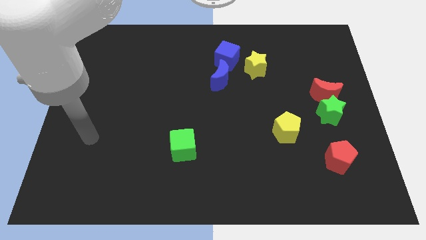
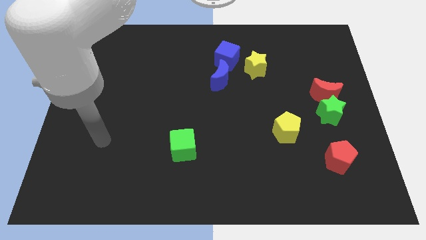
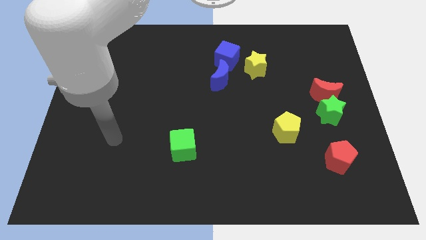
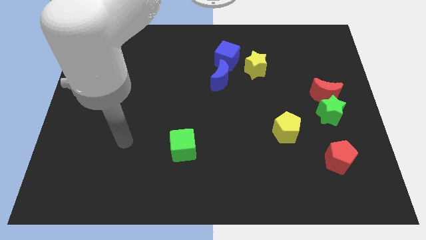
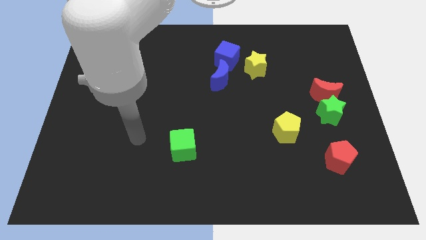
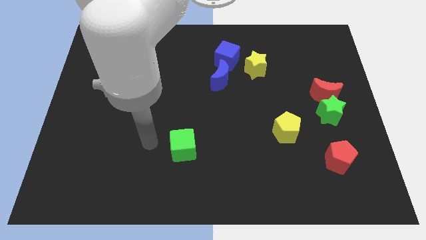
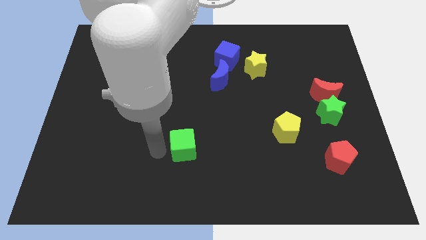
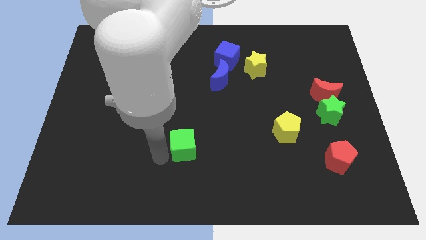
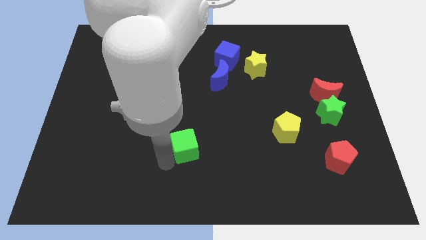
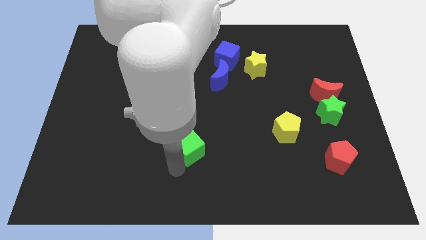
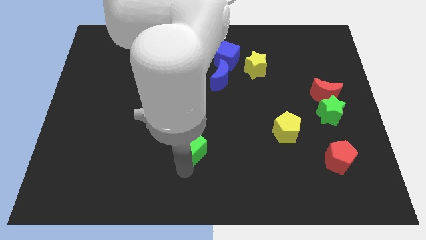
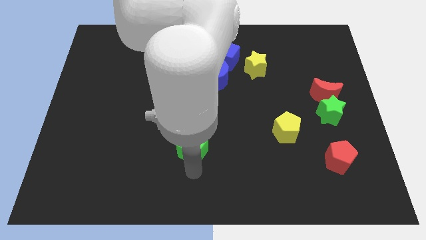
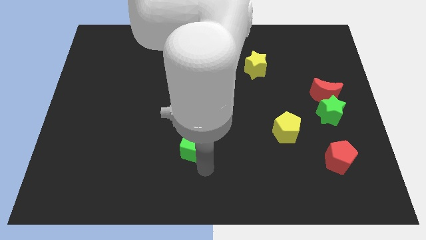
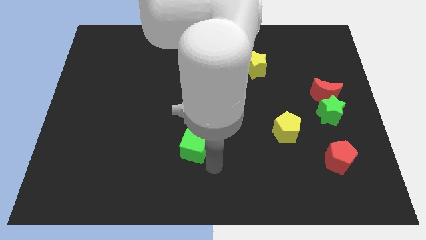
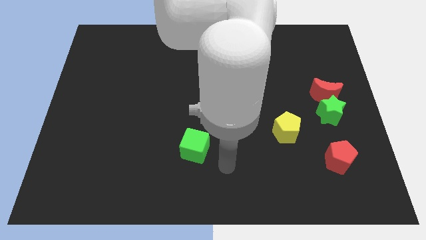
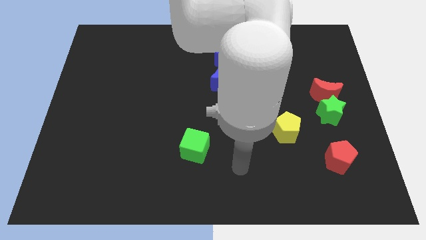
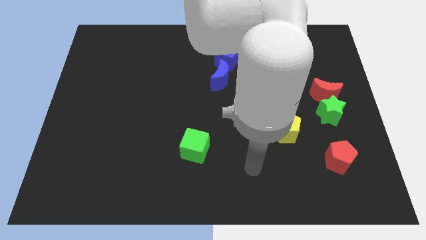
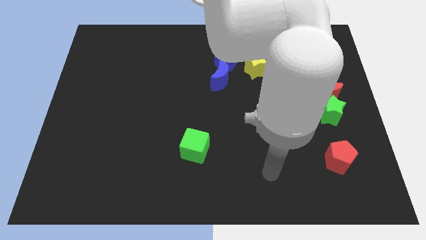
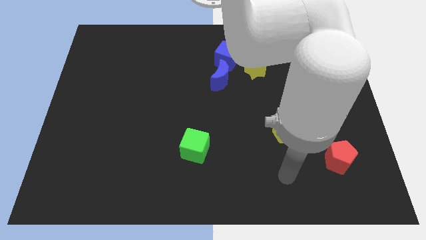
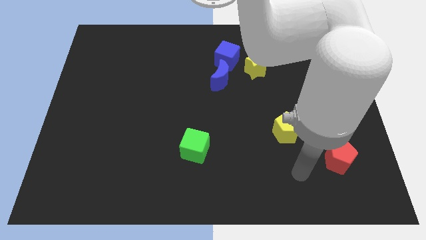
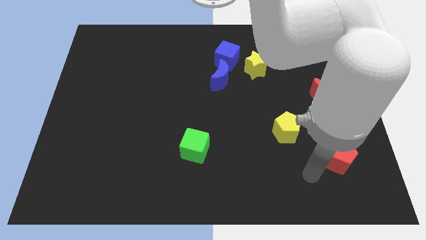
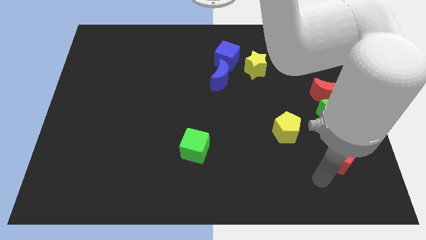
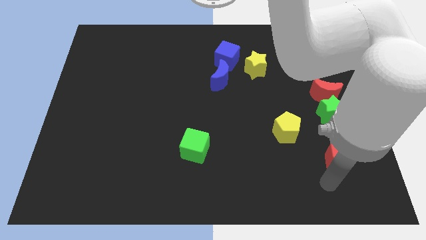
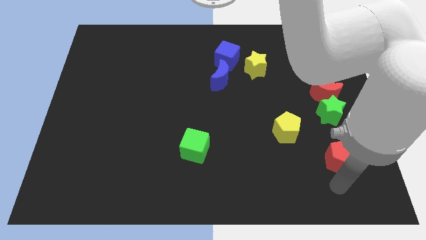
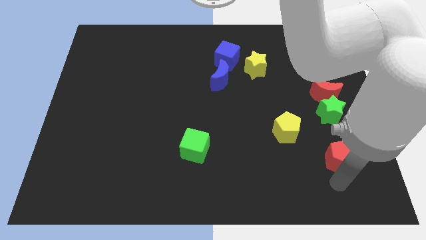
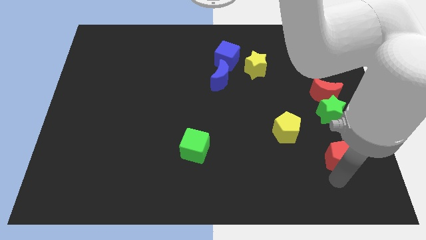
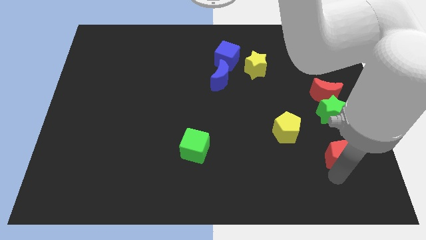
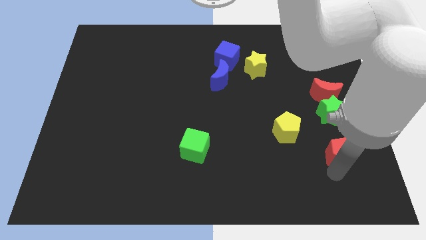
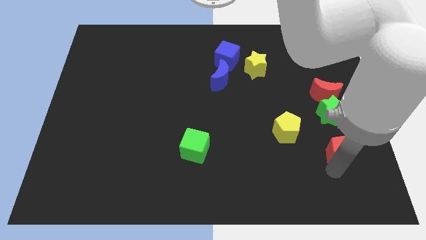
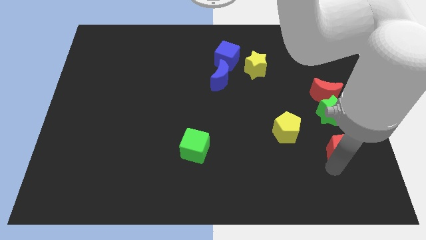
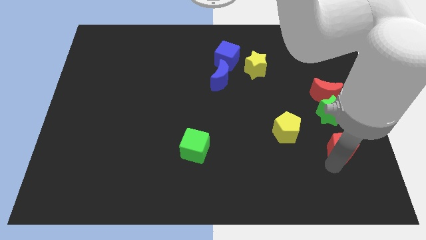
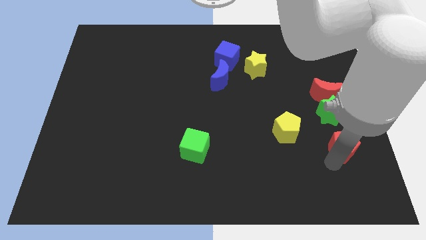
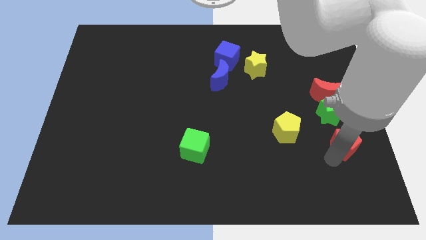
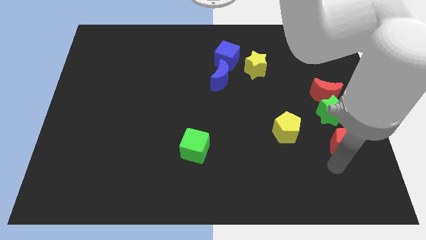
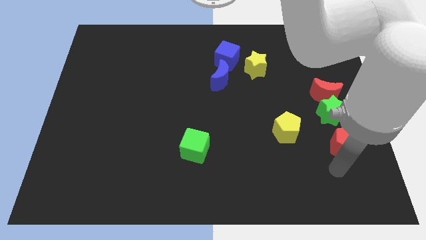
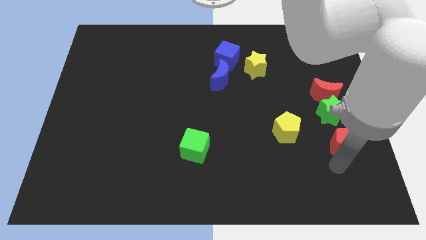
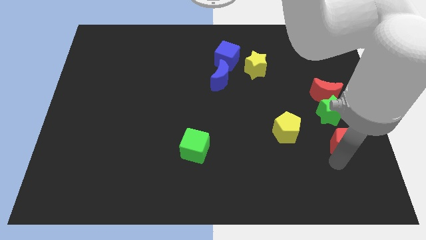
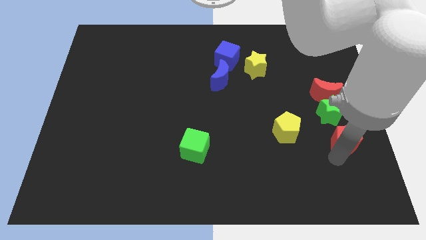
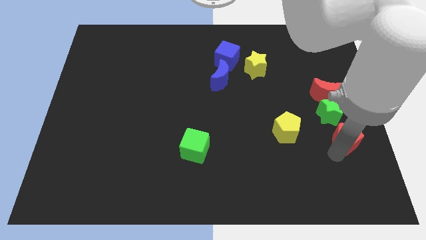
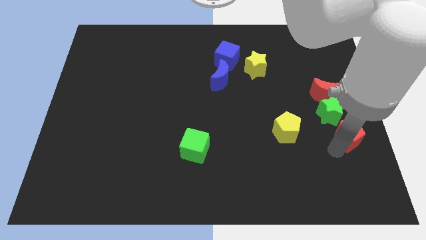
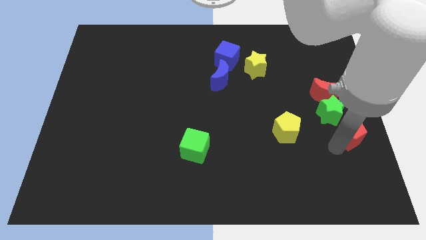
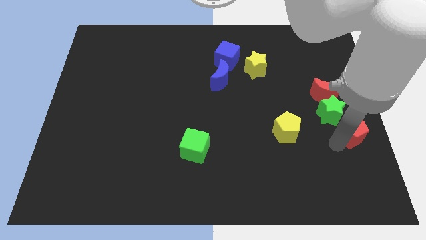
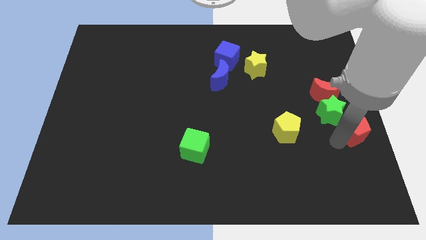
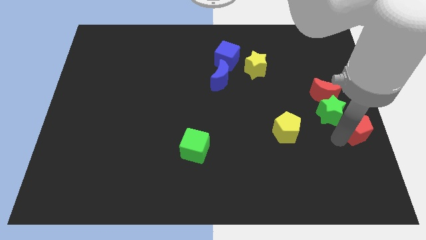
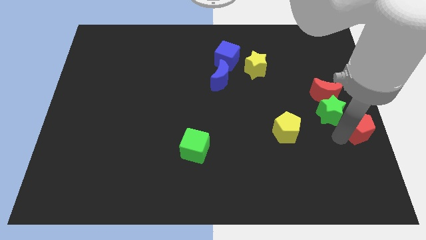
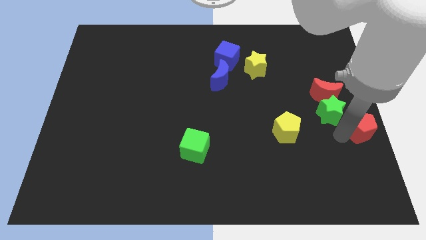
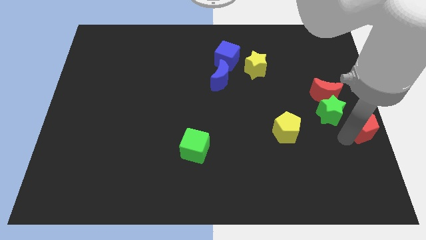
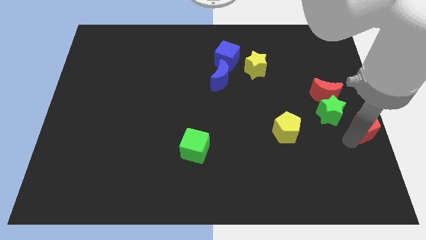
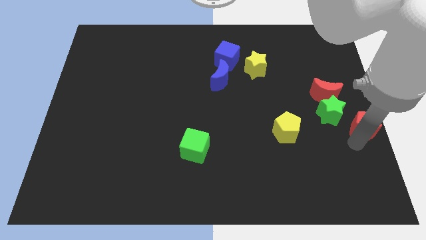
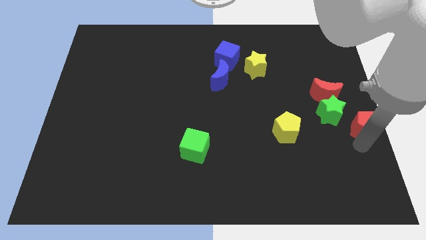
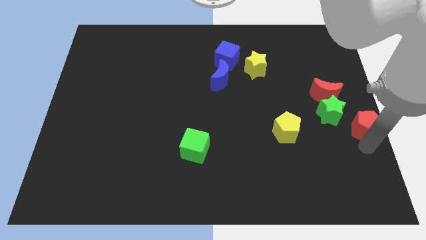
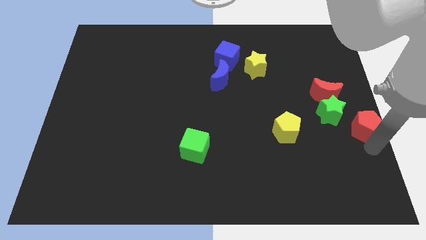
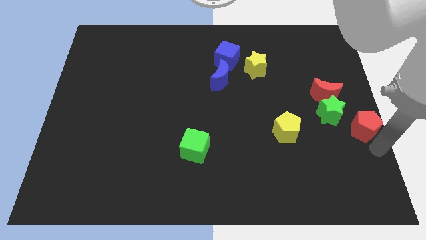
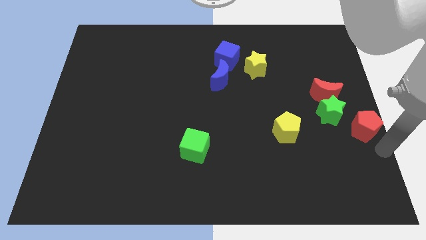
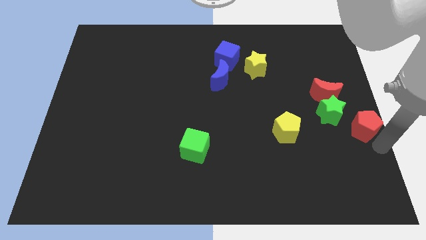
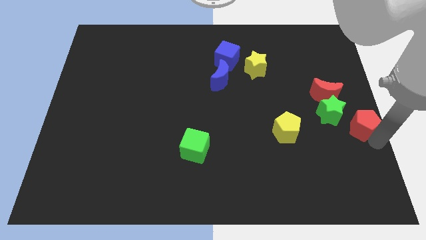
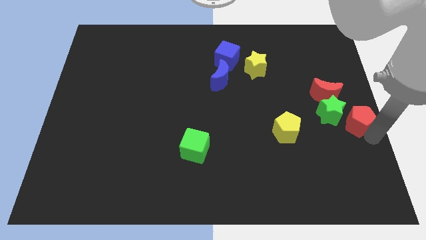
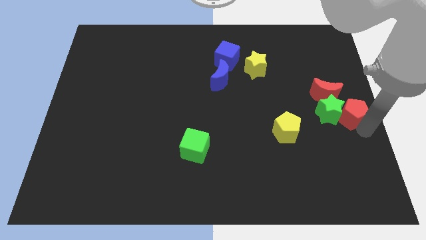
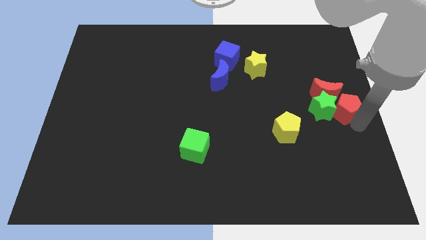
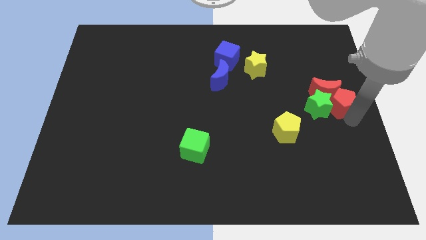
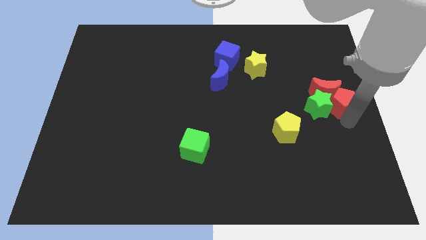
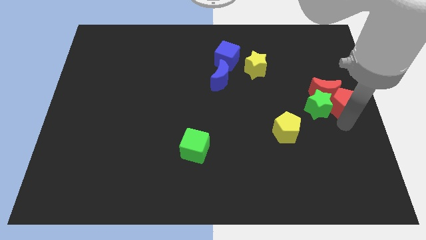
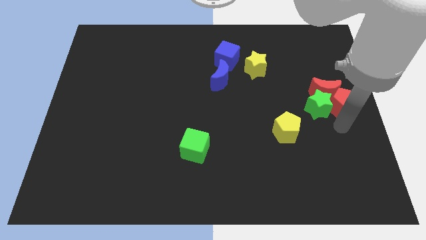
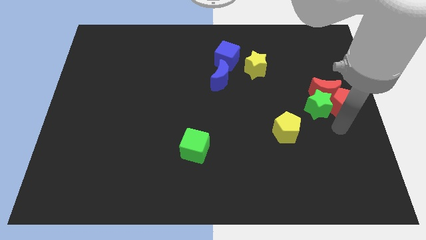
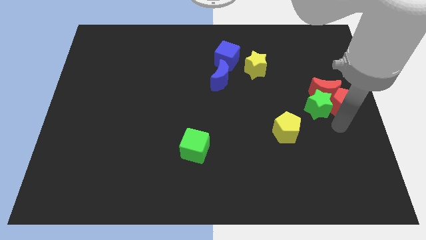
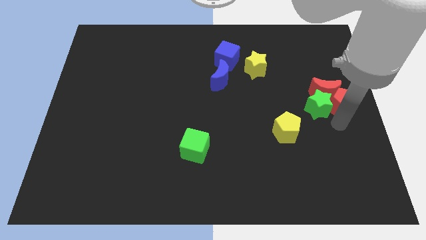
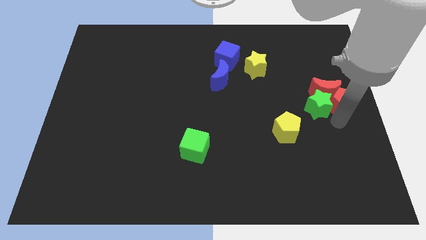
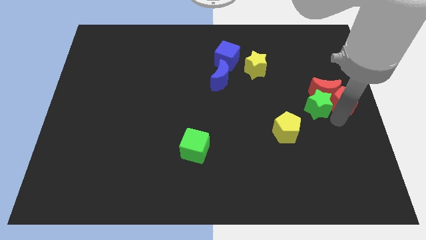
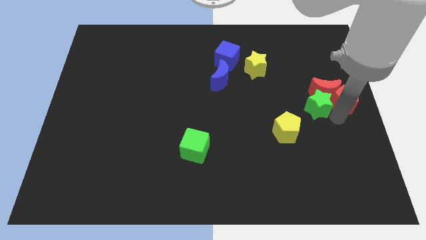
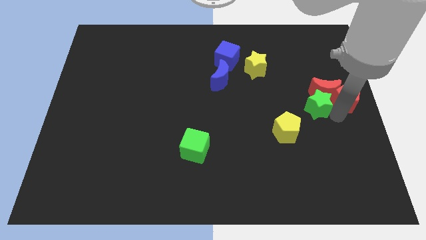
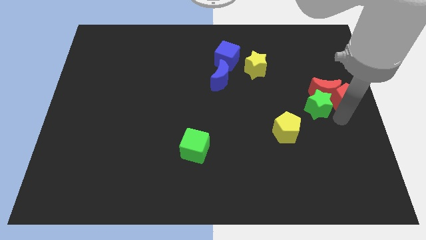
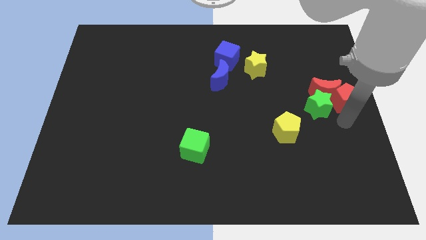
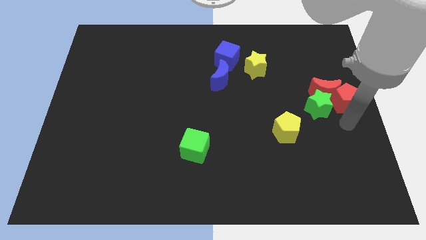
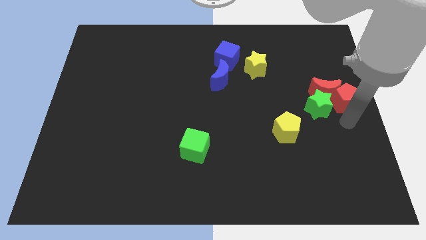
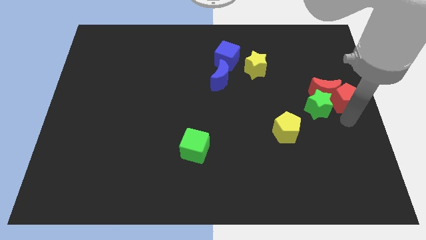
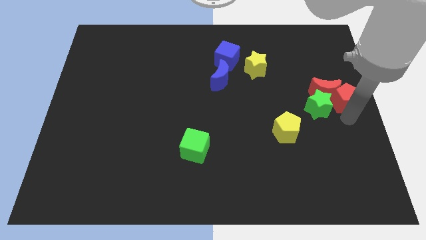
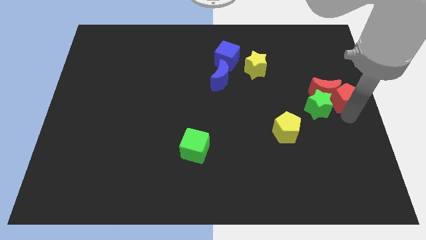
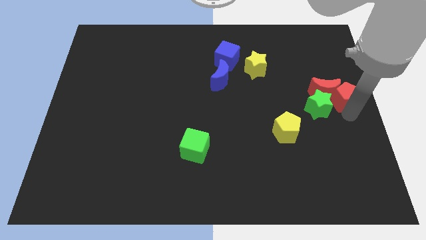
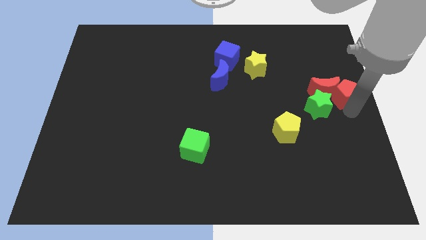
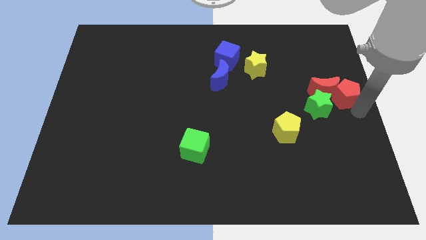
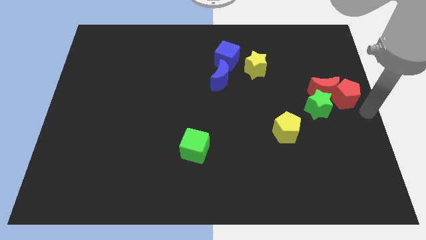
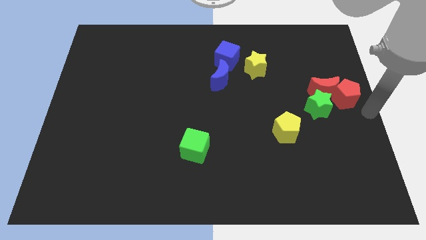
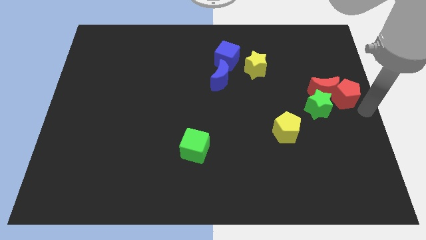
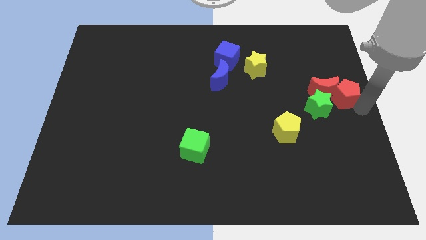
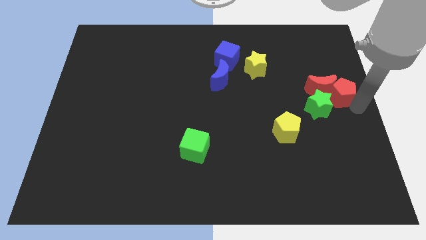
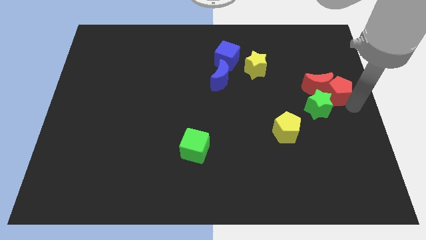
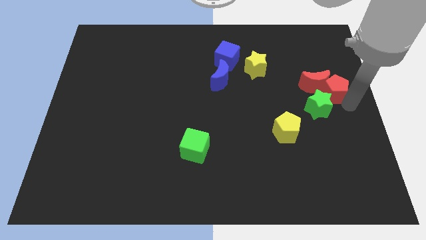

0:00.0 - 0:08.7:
move the red pentagon to the top side of the green star
